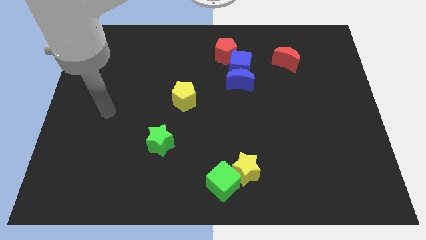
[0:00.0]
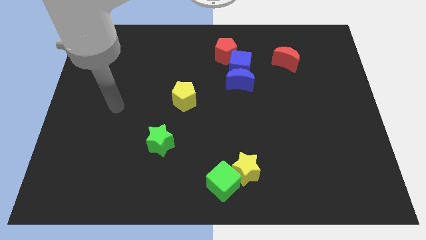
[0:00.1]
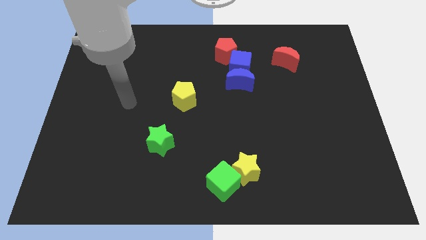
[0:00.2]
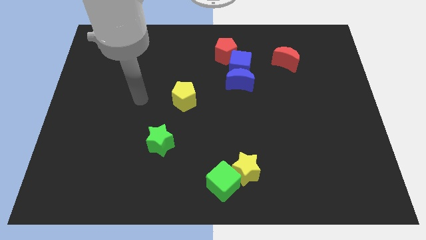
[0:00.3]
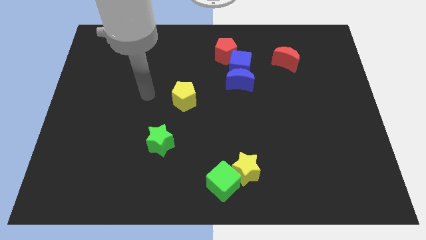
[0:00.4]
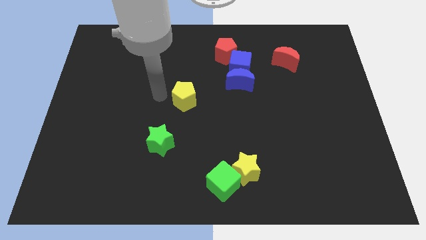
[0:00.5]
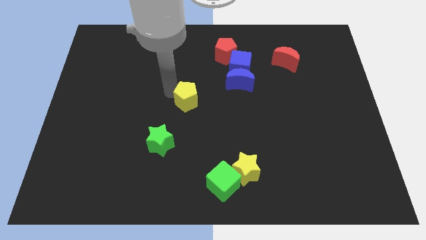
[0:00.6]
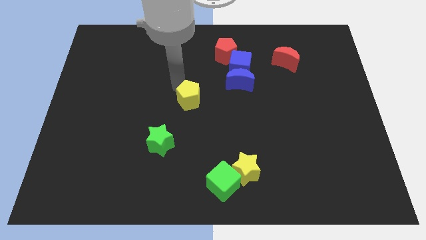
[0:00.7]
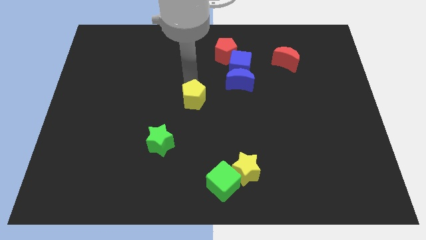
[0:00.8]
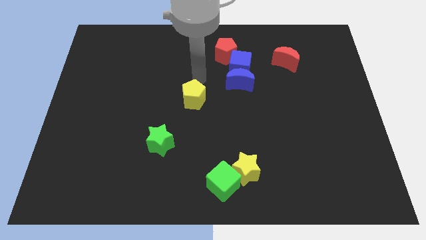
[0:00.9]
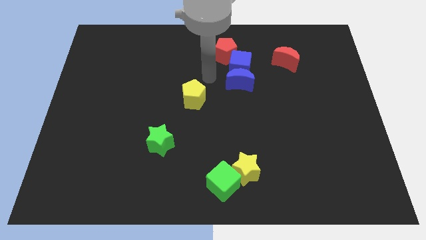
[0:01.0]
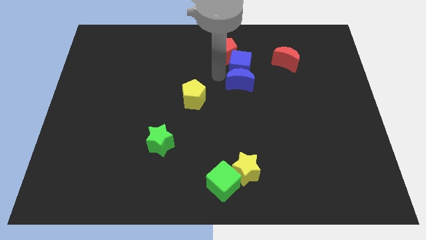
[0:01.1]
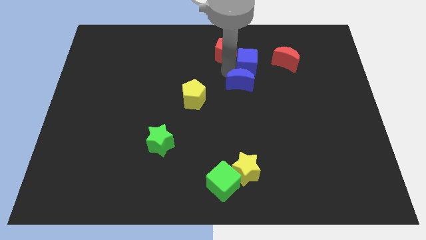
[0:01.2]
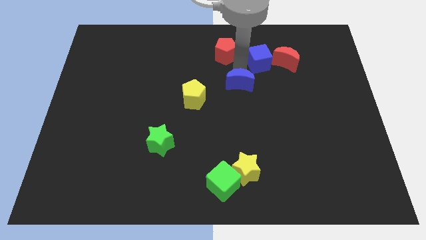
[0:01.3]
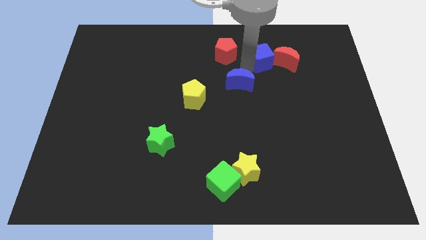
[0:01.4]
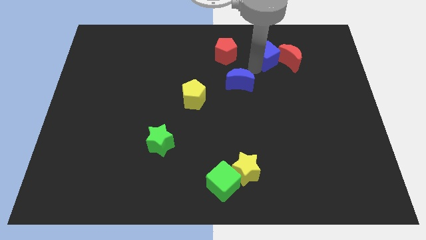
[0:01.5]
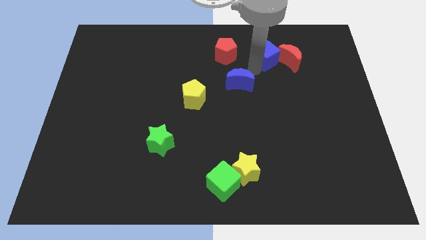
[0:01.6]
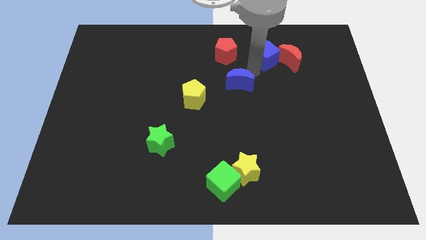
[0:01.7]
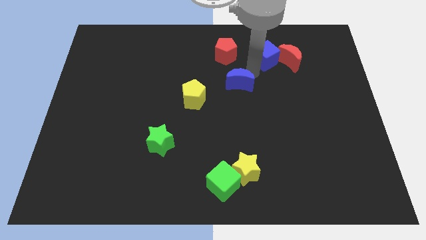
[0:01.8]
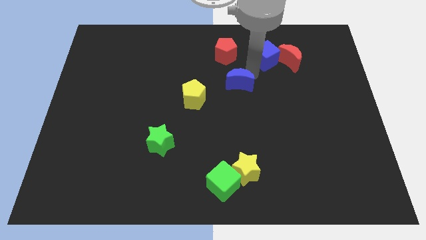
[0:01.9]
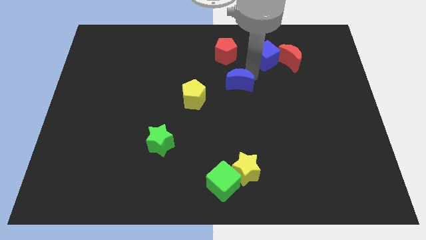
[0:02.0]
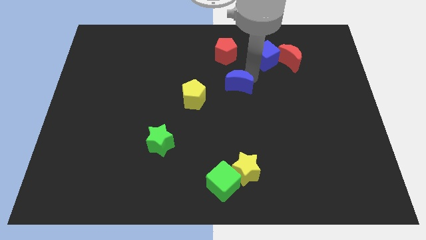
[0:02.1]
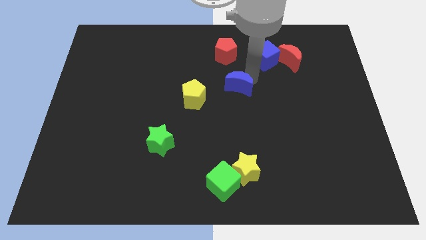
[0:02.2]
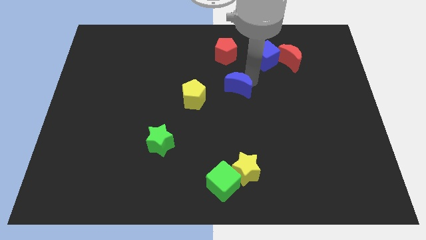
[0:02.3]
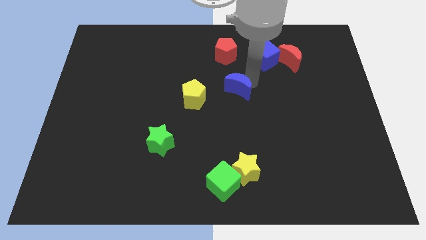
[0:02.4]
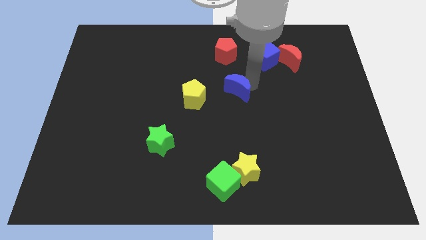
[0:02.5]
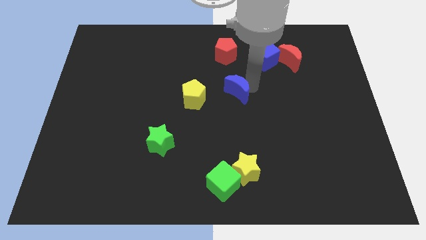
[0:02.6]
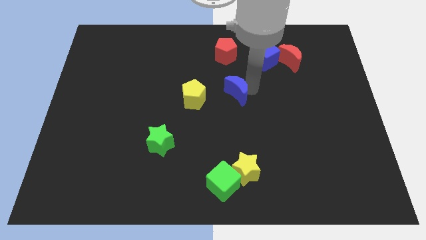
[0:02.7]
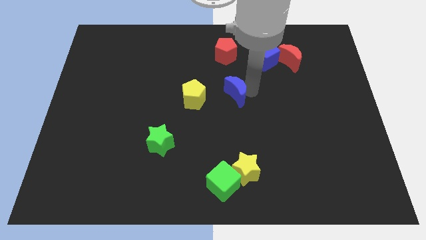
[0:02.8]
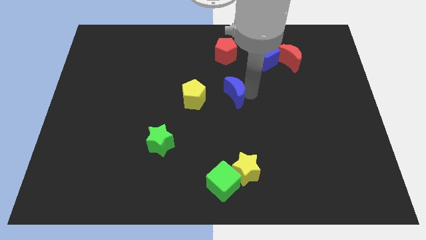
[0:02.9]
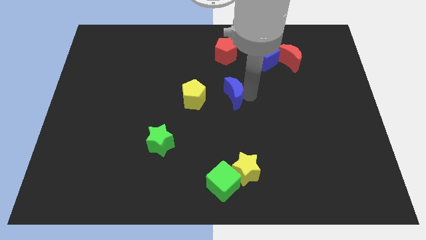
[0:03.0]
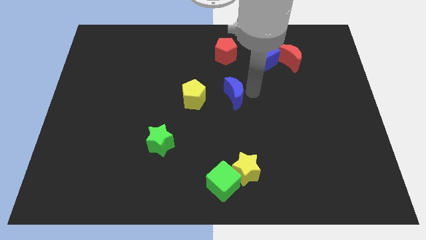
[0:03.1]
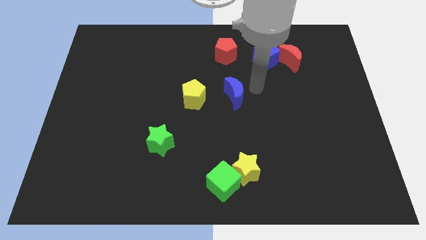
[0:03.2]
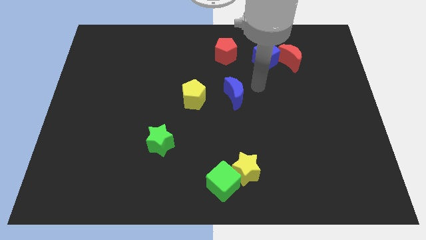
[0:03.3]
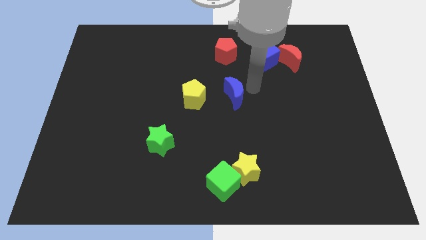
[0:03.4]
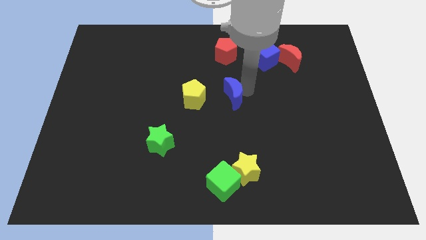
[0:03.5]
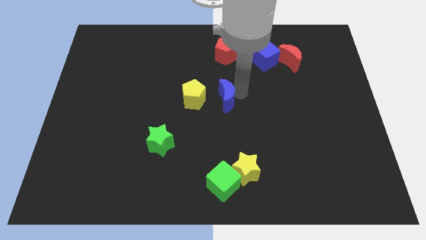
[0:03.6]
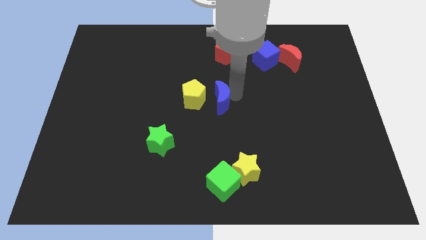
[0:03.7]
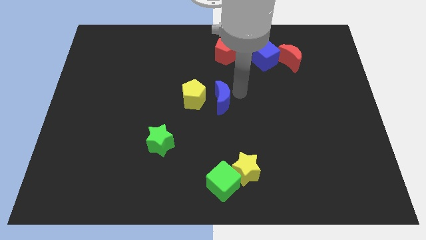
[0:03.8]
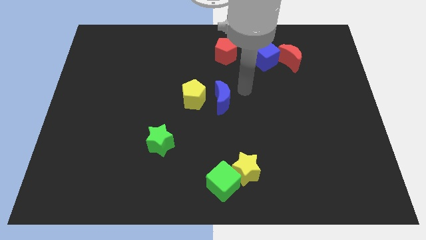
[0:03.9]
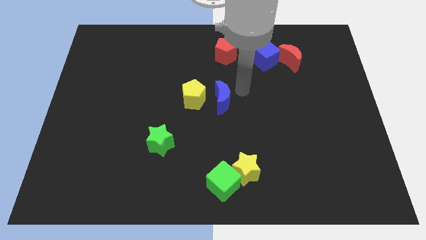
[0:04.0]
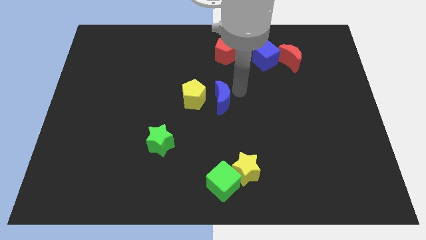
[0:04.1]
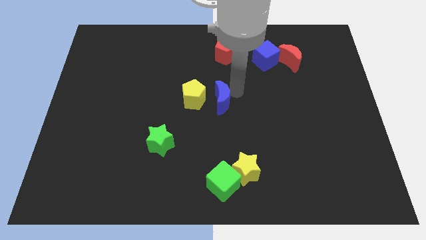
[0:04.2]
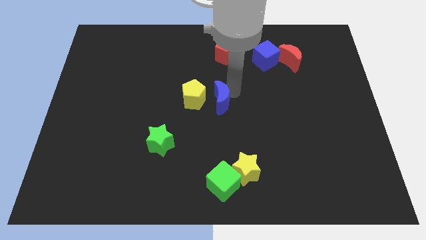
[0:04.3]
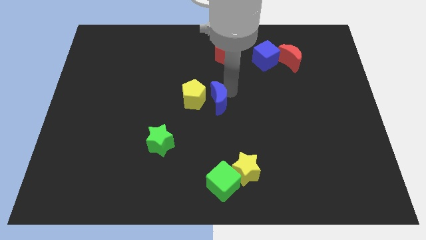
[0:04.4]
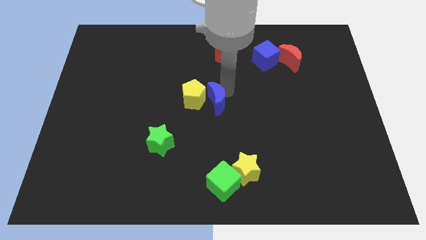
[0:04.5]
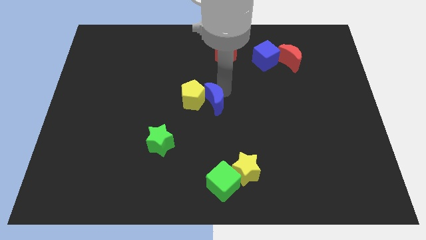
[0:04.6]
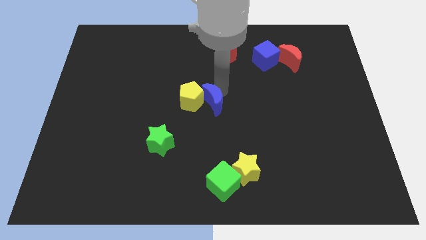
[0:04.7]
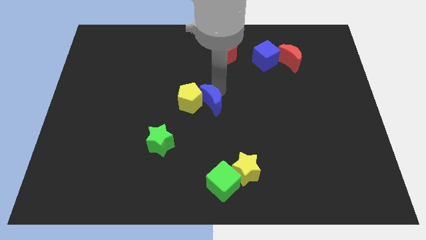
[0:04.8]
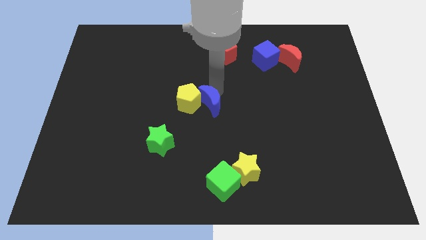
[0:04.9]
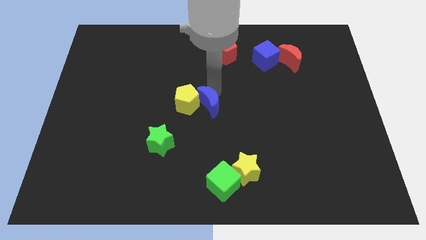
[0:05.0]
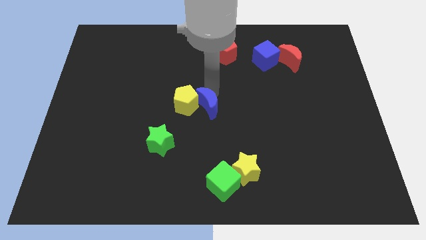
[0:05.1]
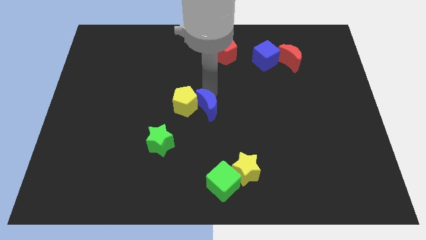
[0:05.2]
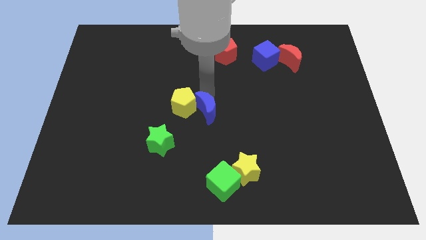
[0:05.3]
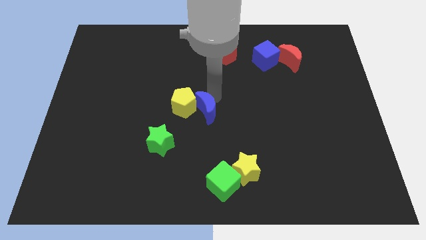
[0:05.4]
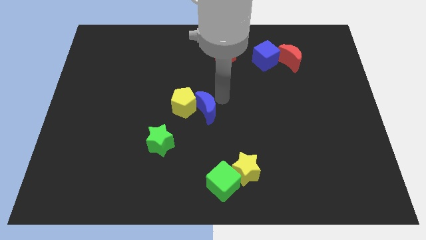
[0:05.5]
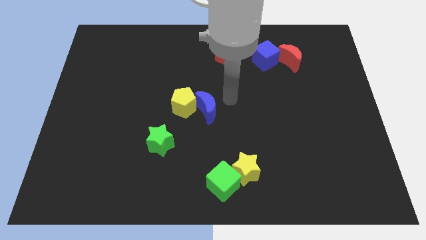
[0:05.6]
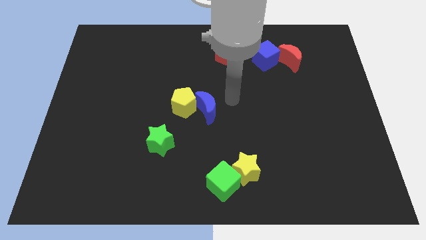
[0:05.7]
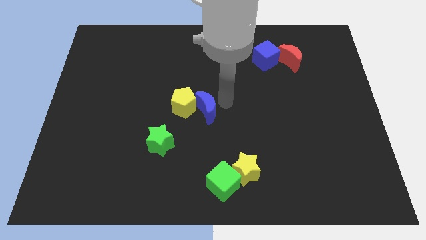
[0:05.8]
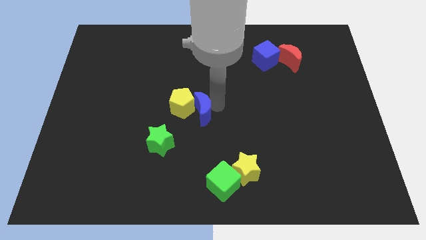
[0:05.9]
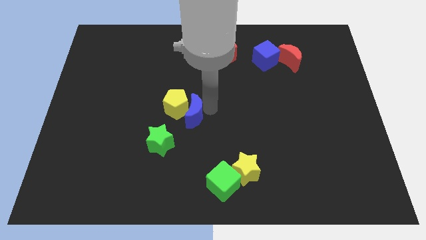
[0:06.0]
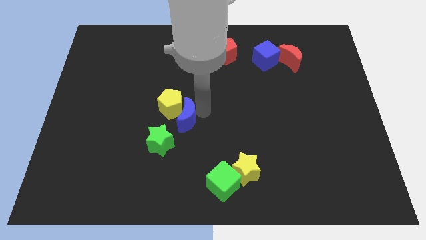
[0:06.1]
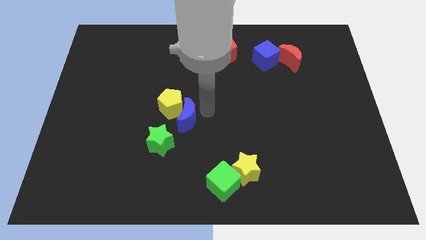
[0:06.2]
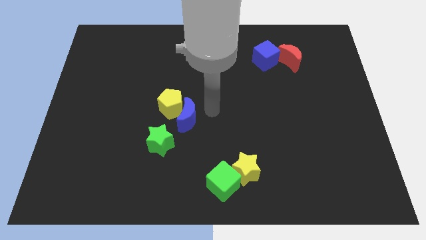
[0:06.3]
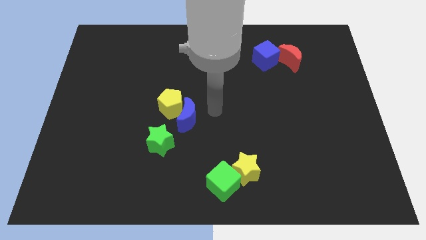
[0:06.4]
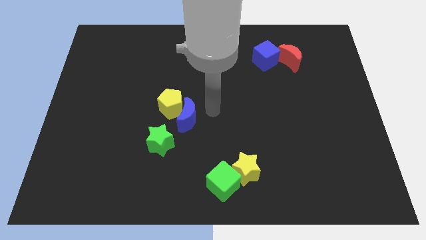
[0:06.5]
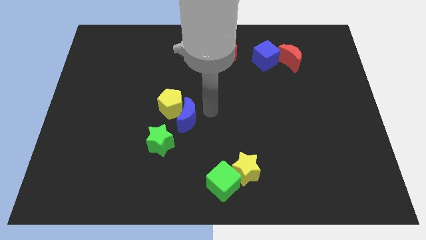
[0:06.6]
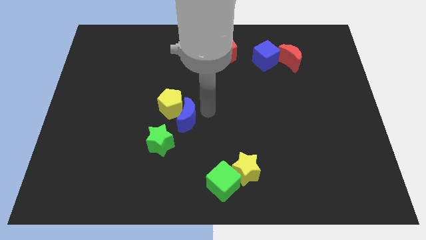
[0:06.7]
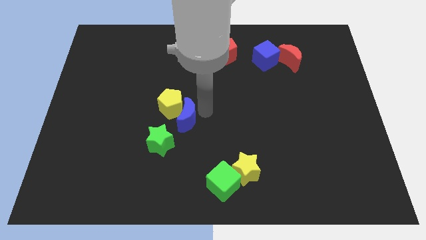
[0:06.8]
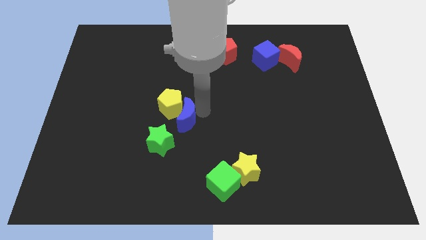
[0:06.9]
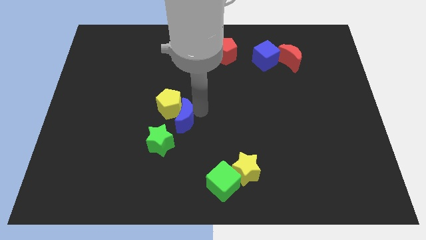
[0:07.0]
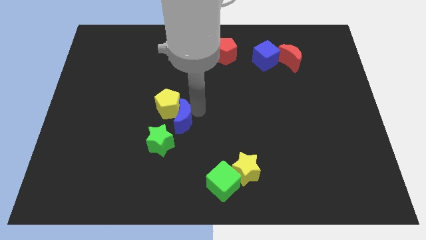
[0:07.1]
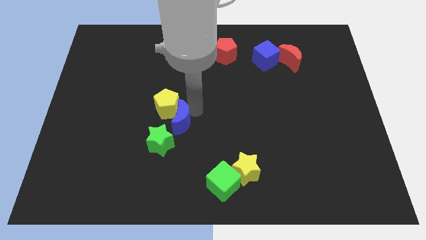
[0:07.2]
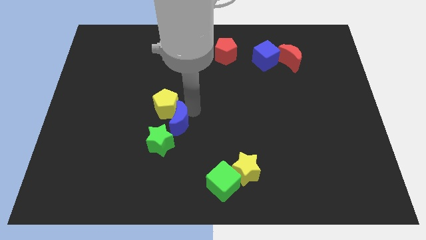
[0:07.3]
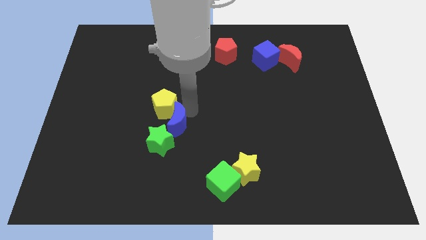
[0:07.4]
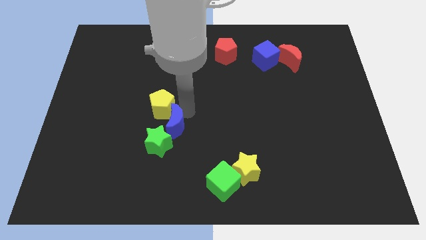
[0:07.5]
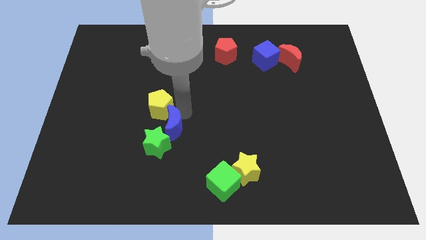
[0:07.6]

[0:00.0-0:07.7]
move the blue moon downwards and left diagonally

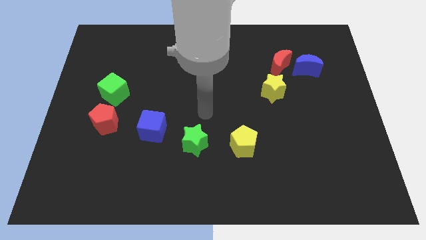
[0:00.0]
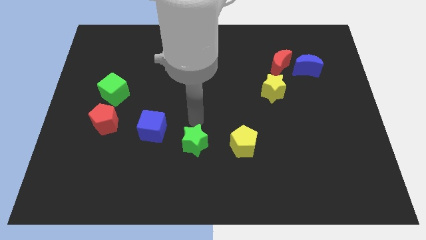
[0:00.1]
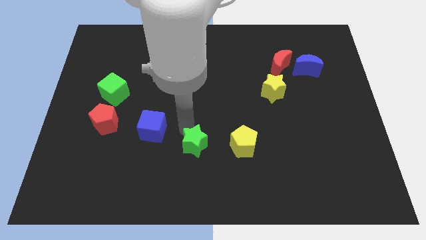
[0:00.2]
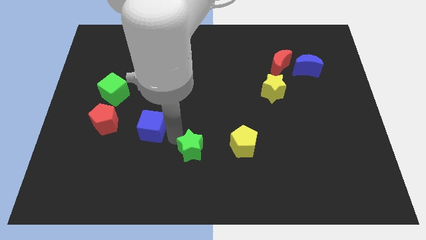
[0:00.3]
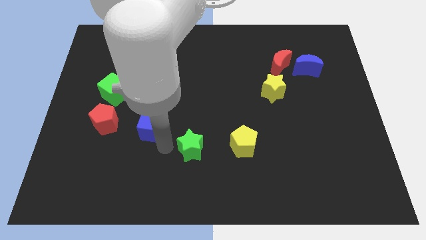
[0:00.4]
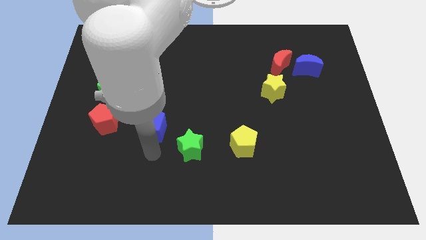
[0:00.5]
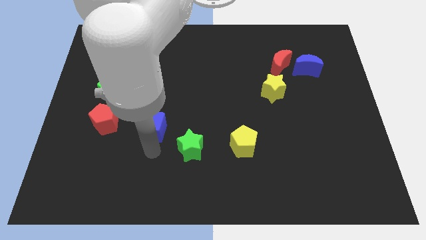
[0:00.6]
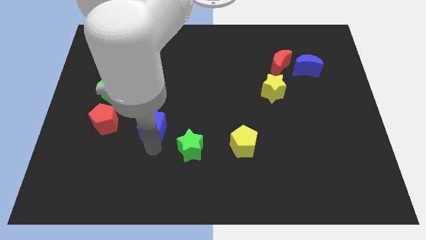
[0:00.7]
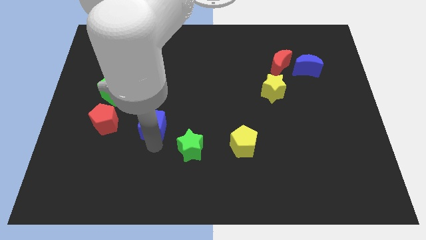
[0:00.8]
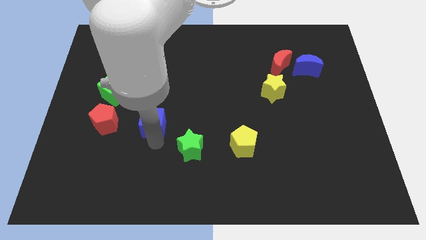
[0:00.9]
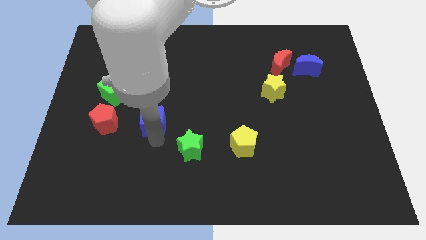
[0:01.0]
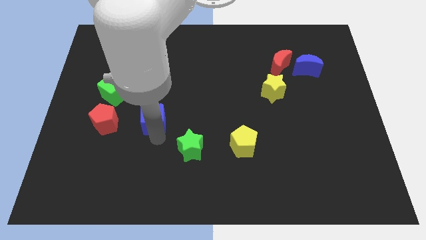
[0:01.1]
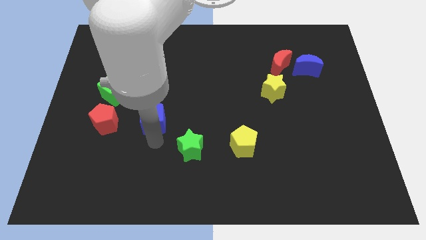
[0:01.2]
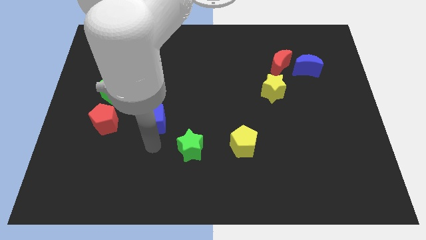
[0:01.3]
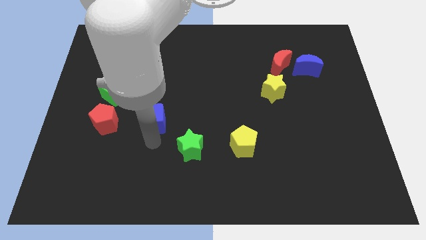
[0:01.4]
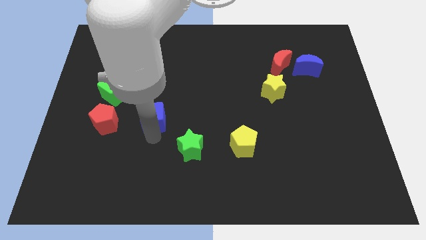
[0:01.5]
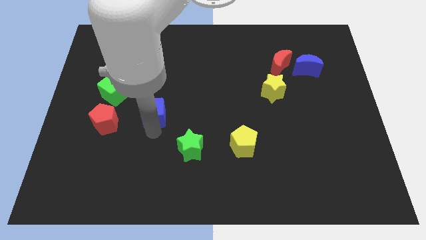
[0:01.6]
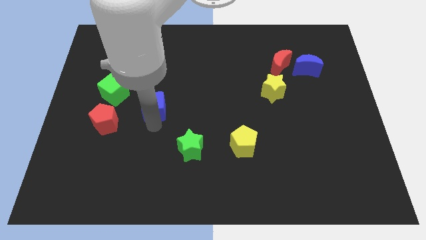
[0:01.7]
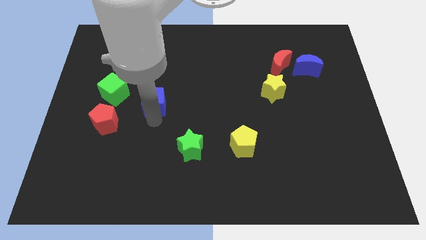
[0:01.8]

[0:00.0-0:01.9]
slightly move the blue cube up
